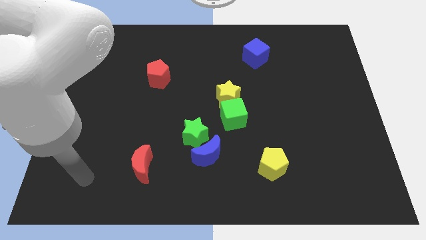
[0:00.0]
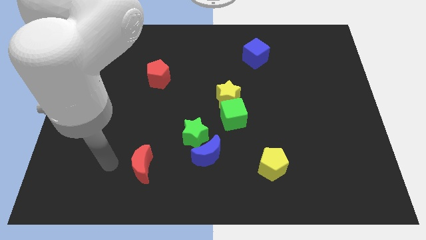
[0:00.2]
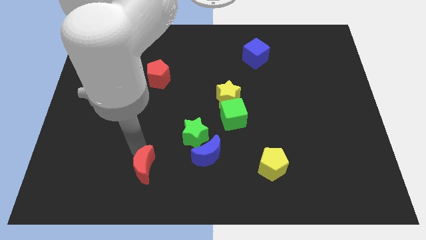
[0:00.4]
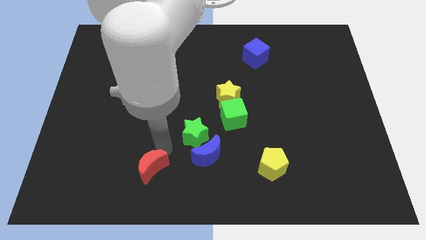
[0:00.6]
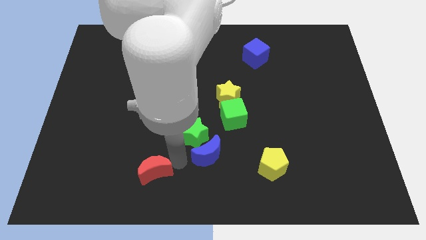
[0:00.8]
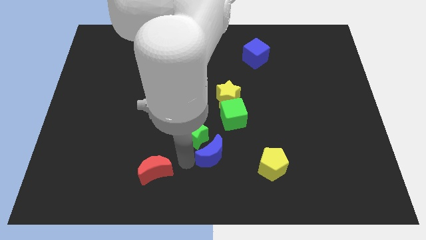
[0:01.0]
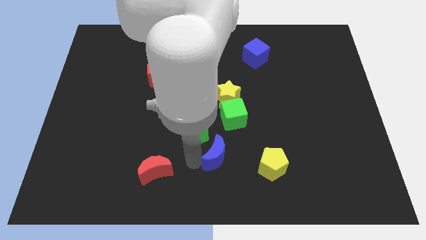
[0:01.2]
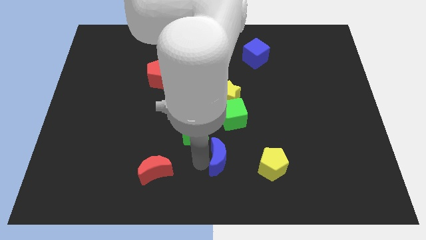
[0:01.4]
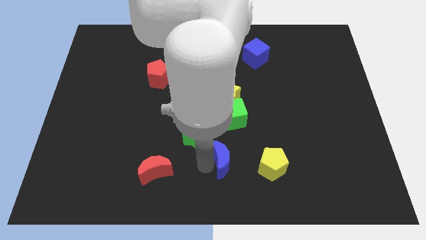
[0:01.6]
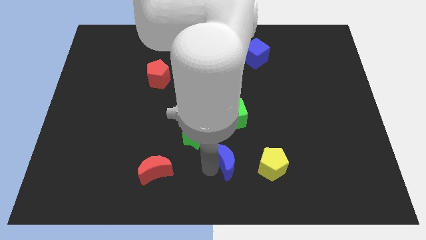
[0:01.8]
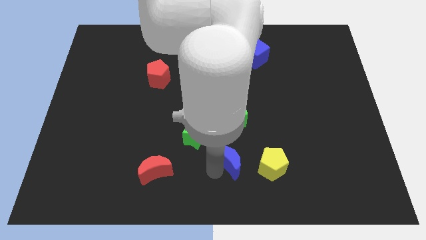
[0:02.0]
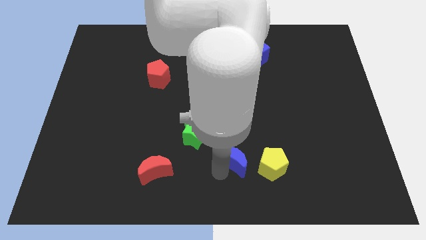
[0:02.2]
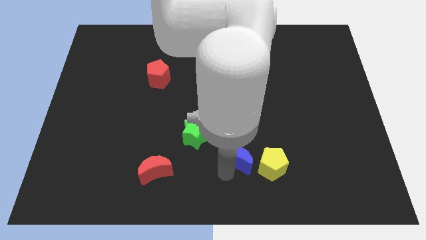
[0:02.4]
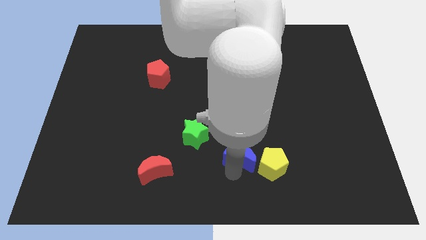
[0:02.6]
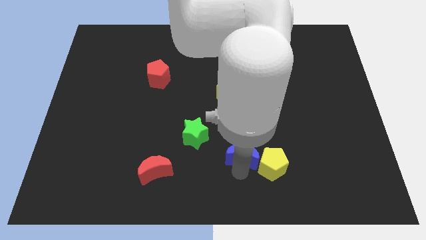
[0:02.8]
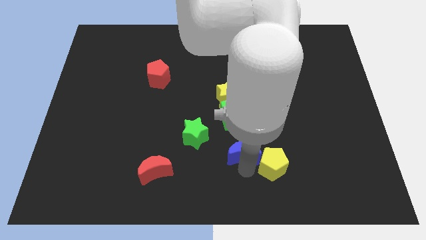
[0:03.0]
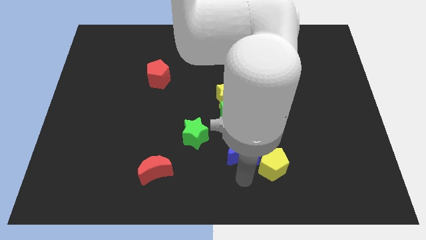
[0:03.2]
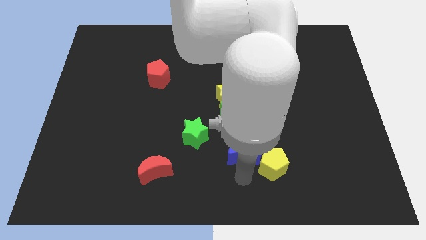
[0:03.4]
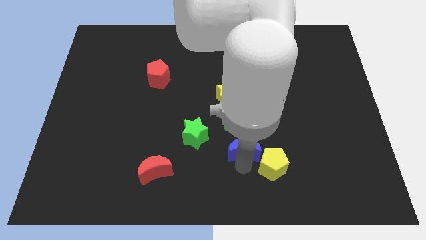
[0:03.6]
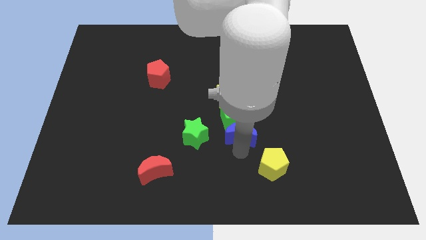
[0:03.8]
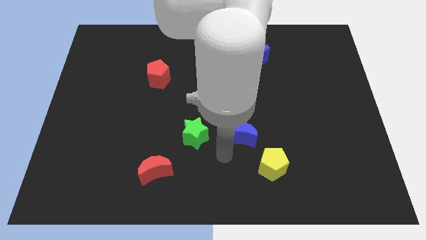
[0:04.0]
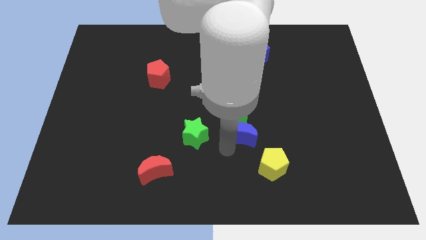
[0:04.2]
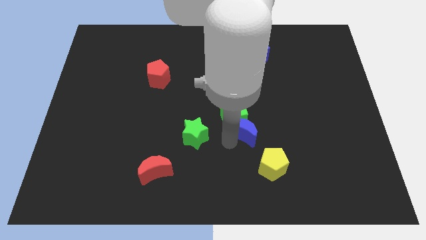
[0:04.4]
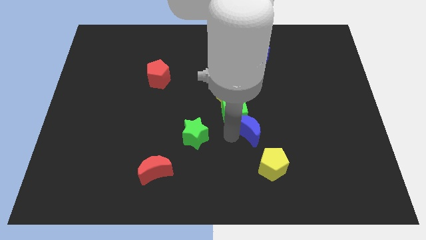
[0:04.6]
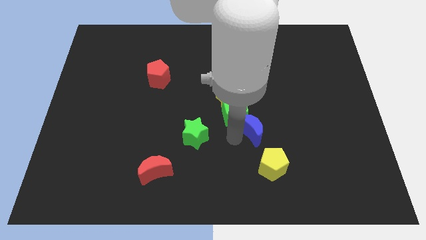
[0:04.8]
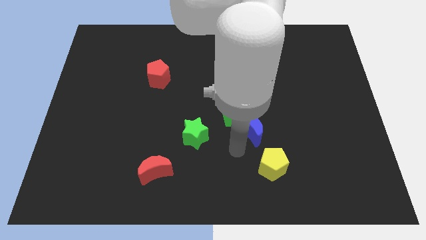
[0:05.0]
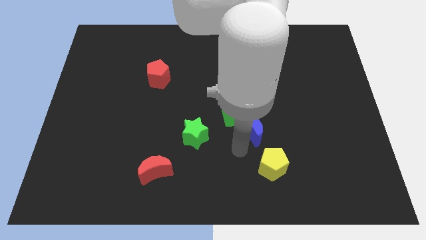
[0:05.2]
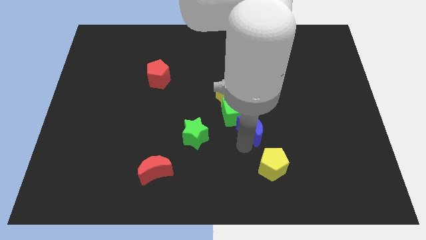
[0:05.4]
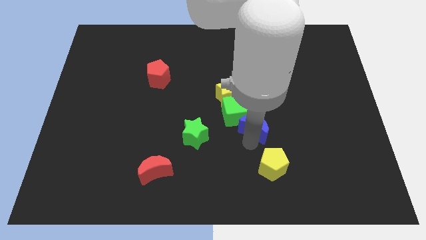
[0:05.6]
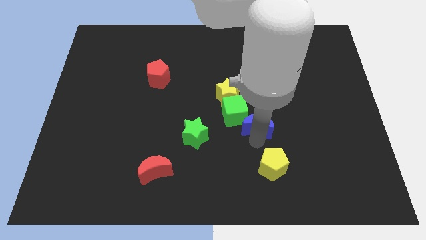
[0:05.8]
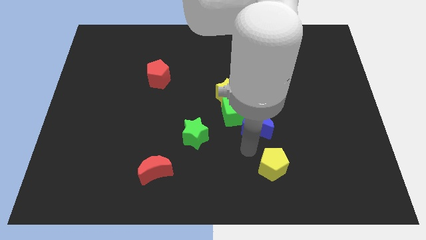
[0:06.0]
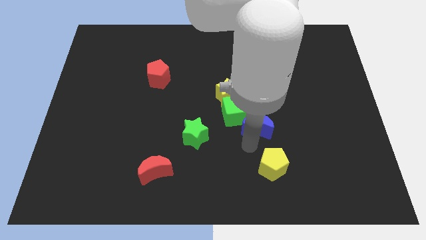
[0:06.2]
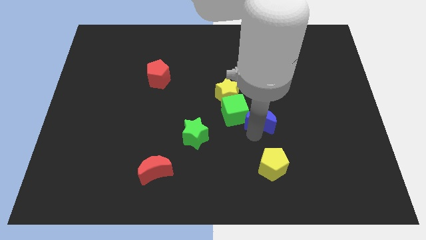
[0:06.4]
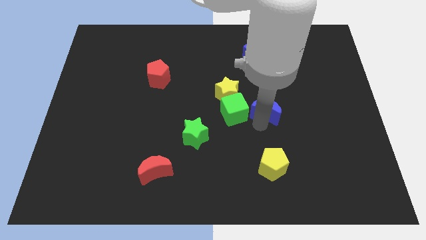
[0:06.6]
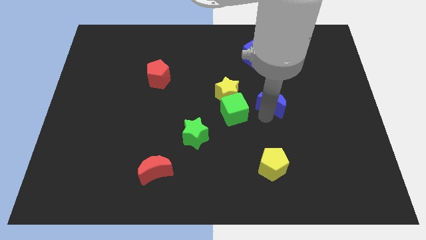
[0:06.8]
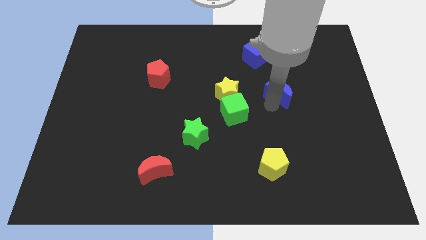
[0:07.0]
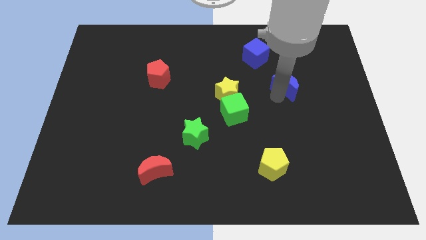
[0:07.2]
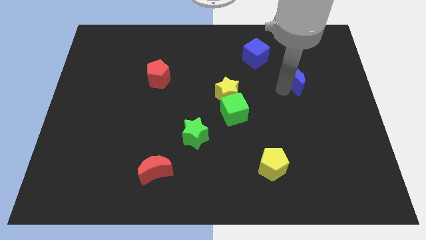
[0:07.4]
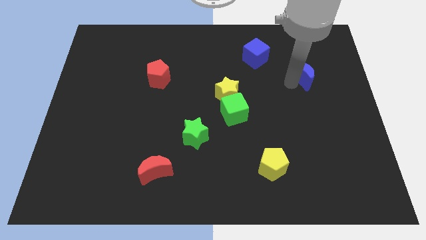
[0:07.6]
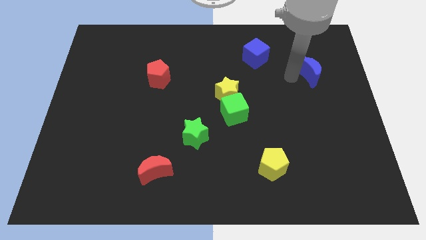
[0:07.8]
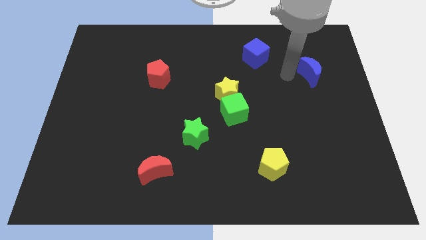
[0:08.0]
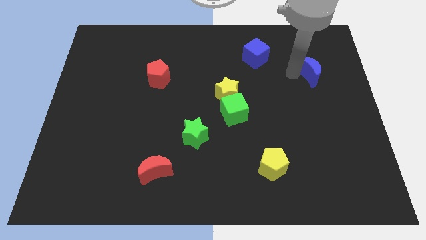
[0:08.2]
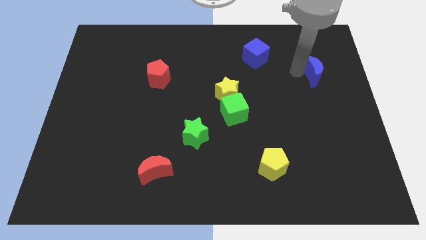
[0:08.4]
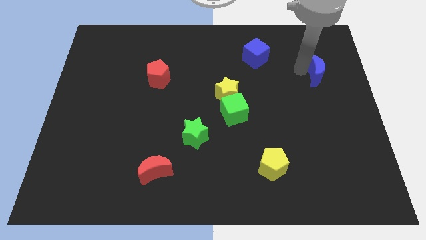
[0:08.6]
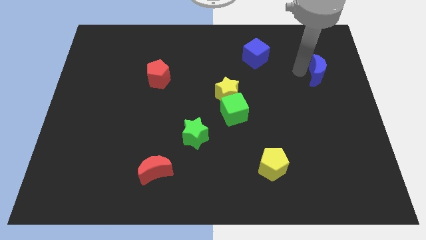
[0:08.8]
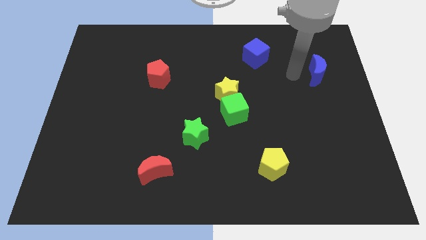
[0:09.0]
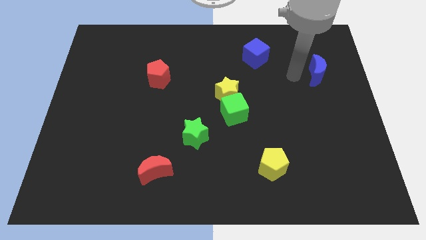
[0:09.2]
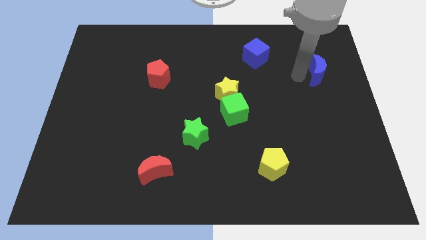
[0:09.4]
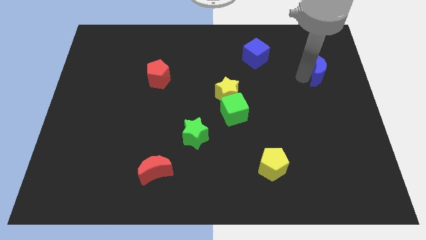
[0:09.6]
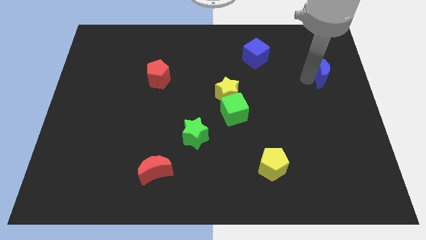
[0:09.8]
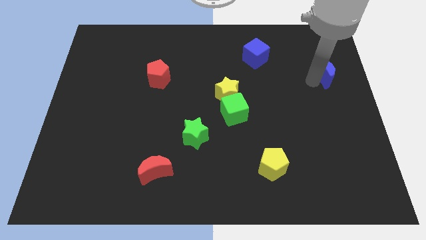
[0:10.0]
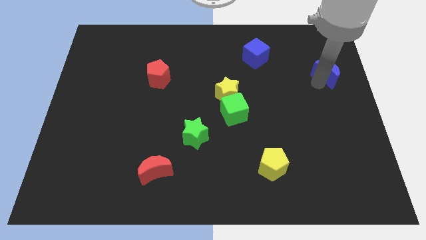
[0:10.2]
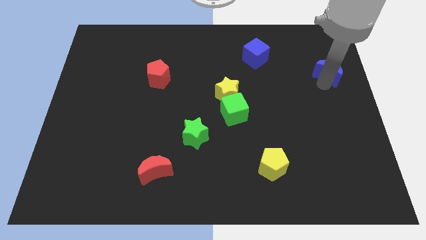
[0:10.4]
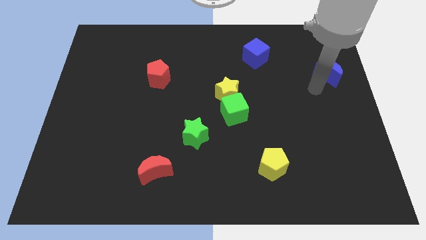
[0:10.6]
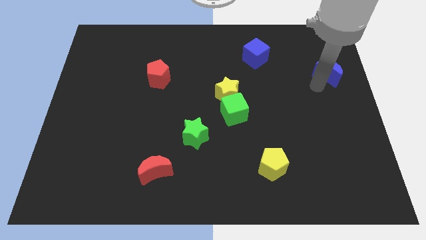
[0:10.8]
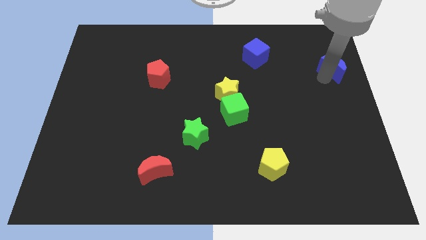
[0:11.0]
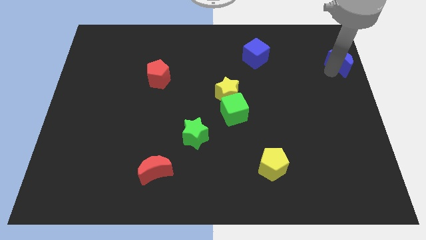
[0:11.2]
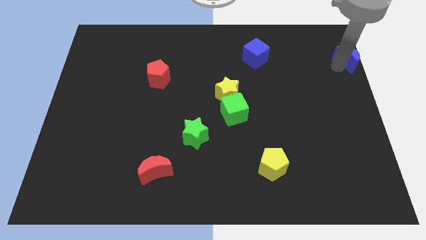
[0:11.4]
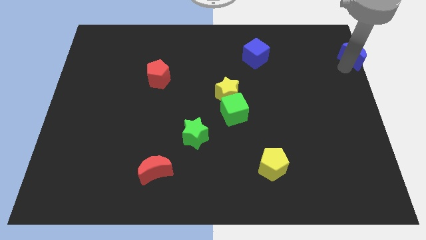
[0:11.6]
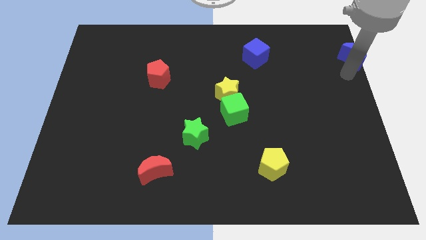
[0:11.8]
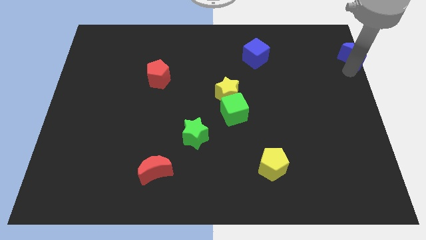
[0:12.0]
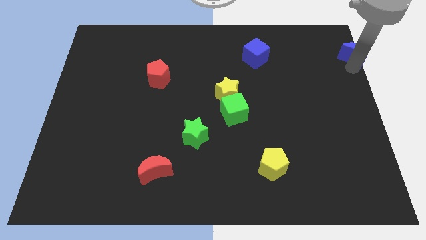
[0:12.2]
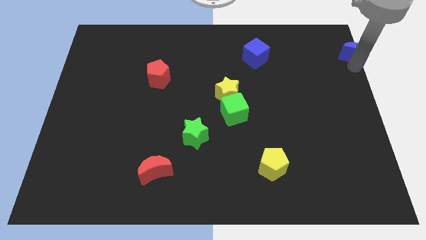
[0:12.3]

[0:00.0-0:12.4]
slide the blue moon to the top right

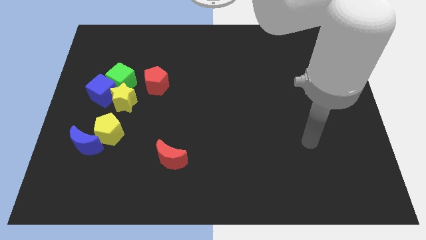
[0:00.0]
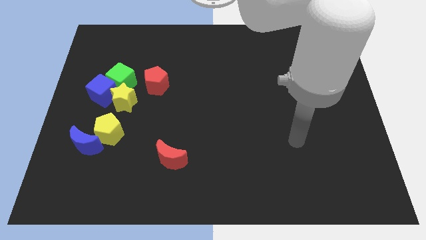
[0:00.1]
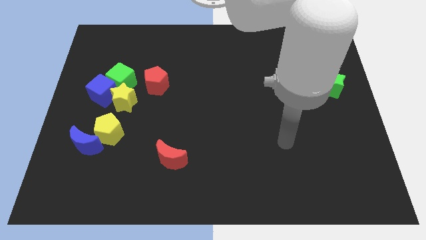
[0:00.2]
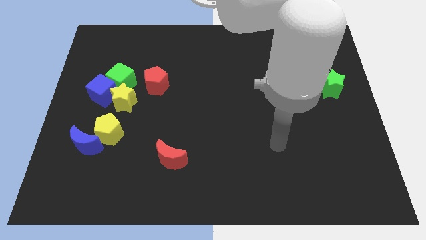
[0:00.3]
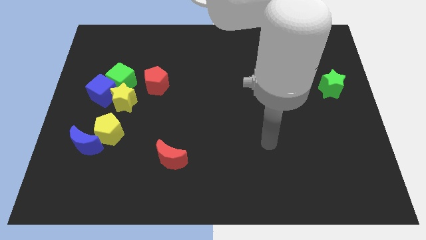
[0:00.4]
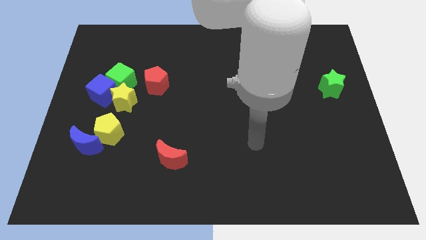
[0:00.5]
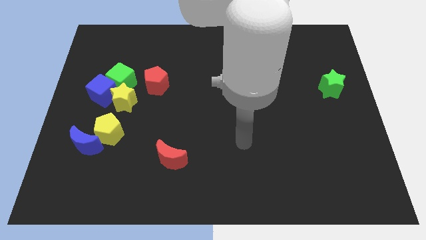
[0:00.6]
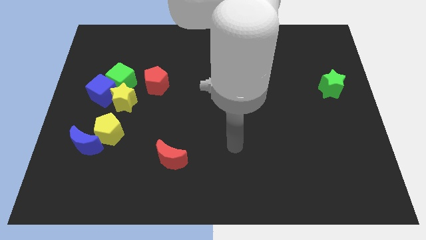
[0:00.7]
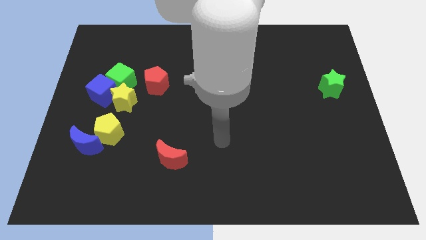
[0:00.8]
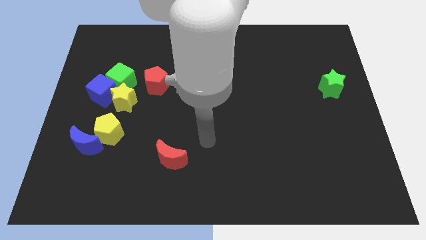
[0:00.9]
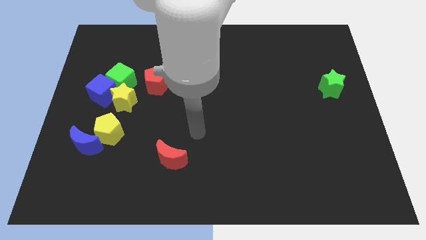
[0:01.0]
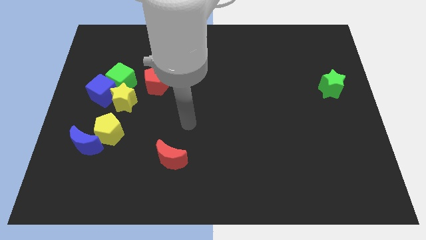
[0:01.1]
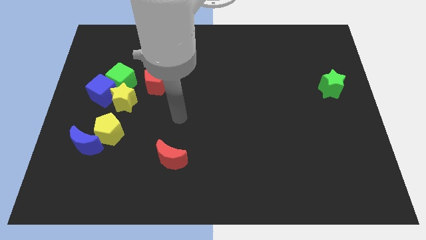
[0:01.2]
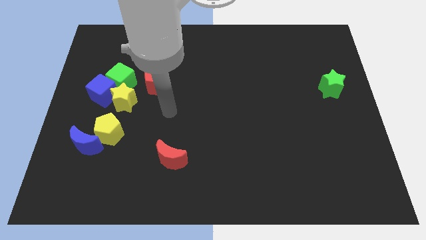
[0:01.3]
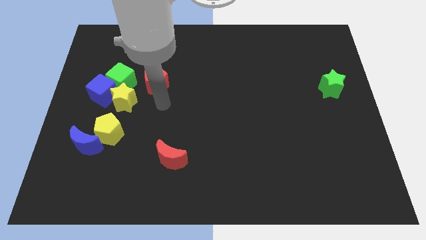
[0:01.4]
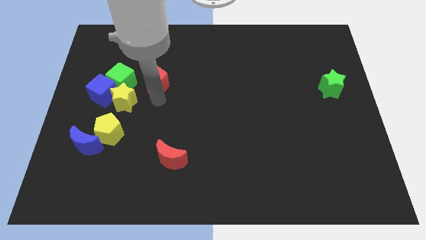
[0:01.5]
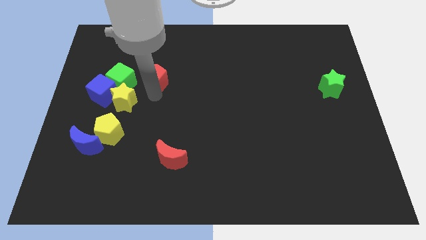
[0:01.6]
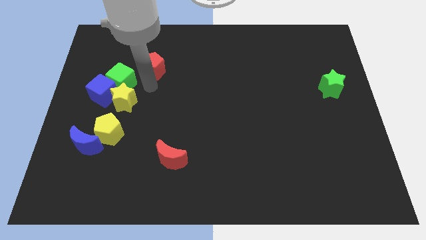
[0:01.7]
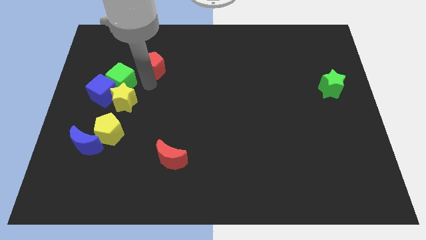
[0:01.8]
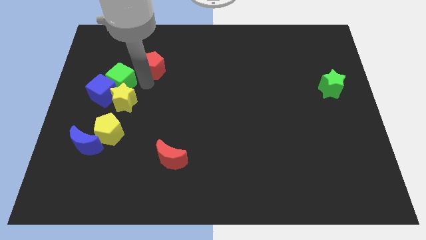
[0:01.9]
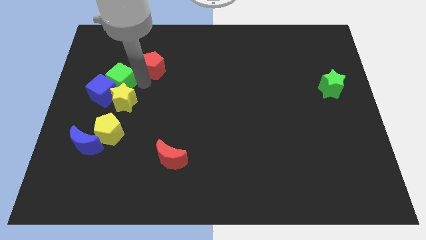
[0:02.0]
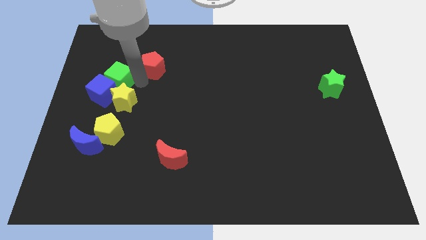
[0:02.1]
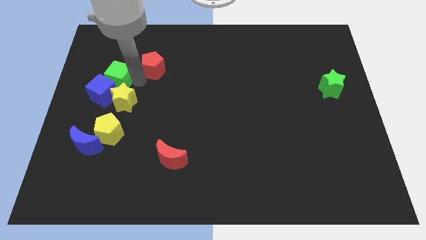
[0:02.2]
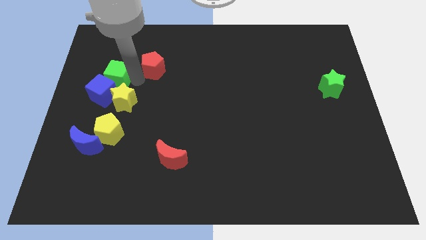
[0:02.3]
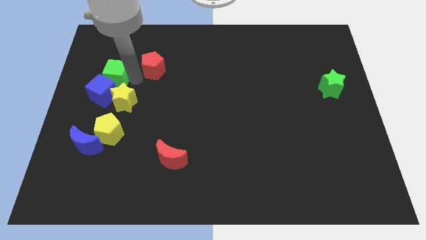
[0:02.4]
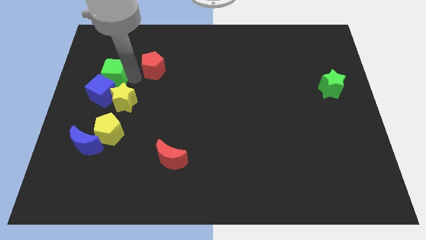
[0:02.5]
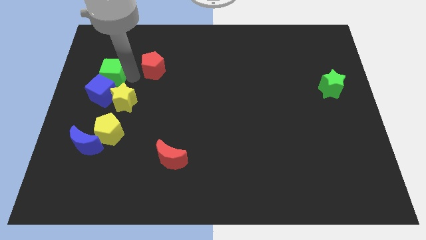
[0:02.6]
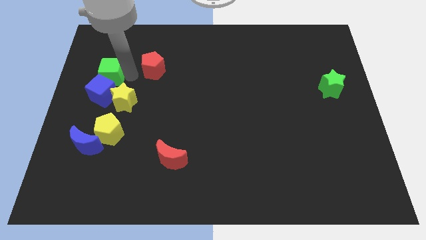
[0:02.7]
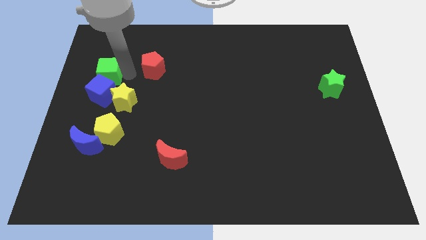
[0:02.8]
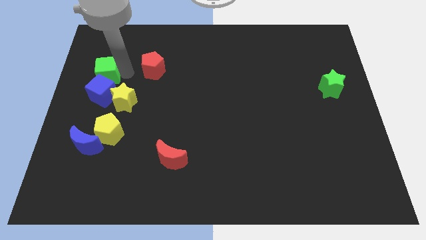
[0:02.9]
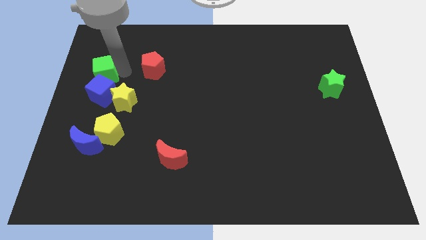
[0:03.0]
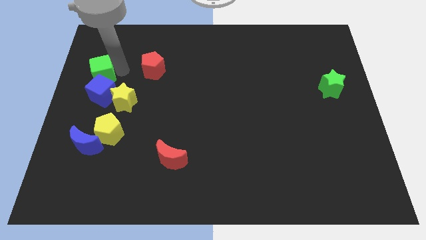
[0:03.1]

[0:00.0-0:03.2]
push the green cube to the left side
